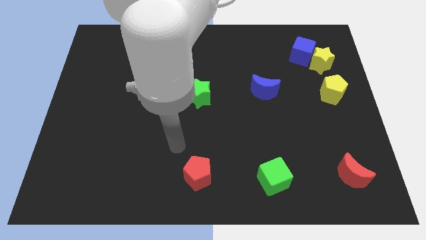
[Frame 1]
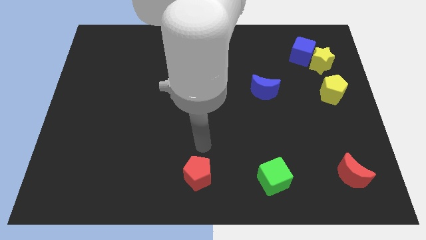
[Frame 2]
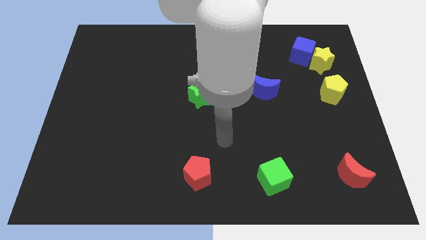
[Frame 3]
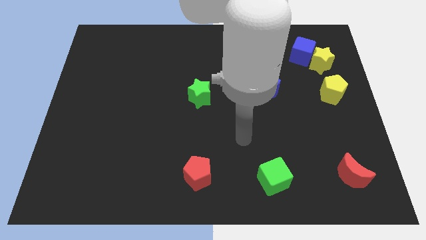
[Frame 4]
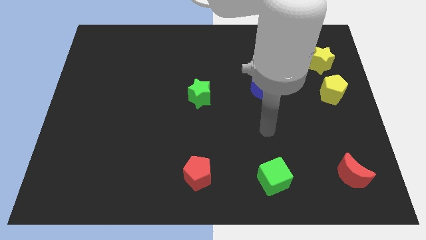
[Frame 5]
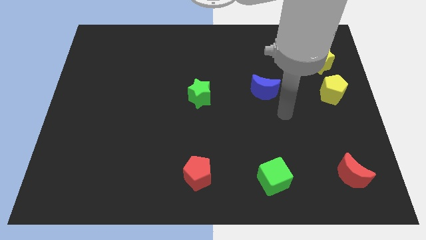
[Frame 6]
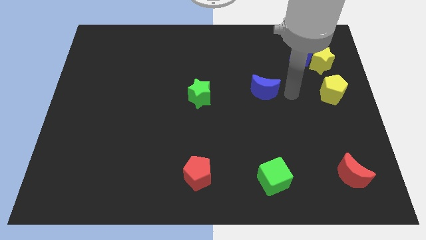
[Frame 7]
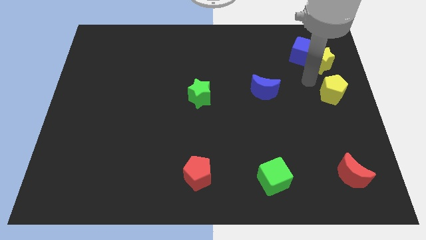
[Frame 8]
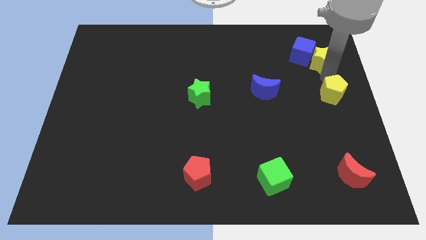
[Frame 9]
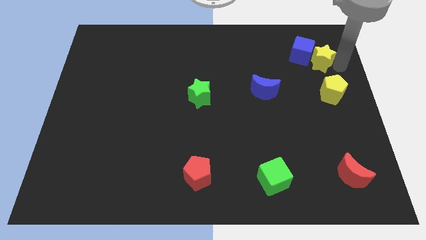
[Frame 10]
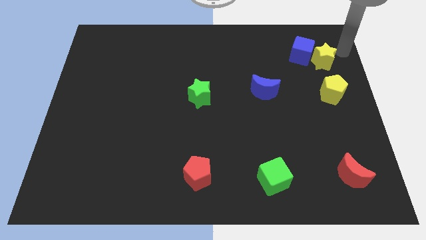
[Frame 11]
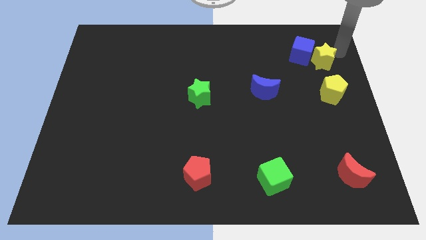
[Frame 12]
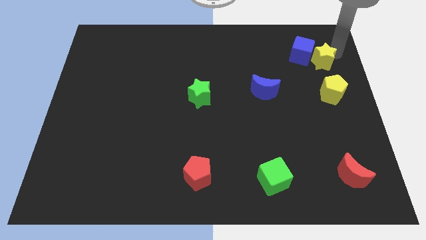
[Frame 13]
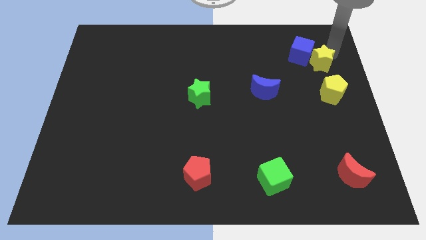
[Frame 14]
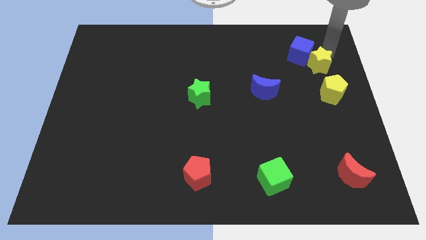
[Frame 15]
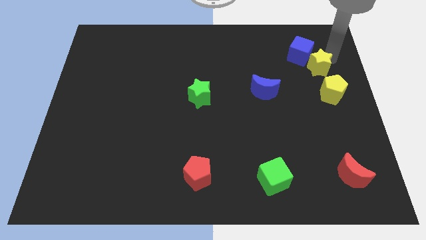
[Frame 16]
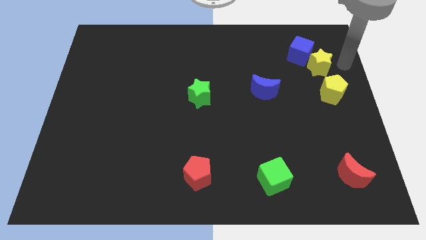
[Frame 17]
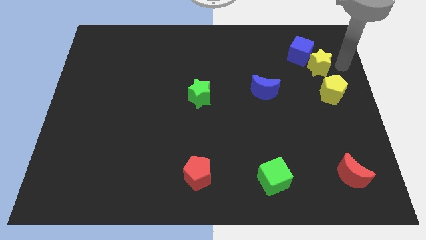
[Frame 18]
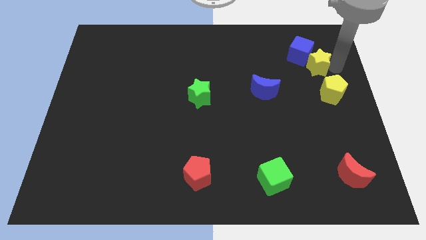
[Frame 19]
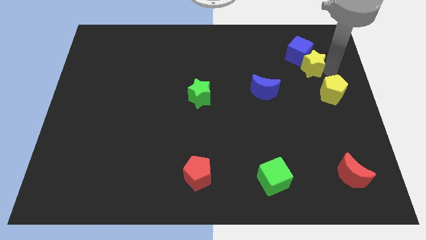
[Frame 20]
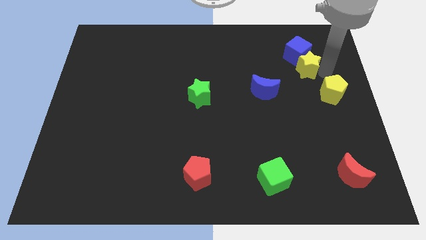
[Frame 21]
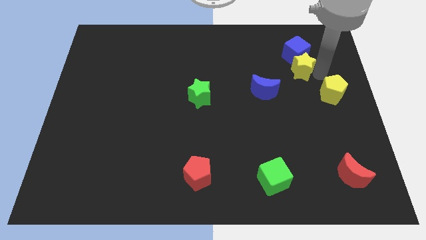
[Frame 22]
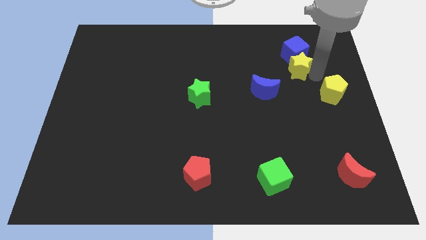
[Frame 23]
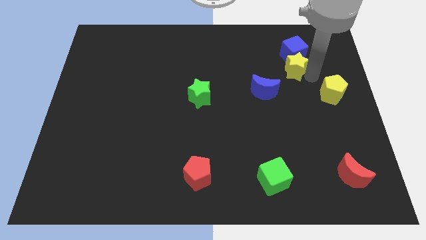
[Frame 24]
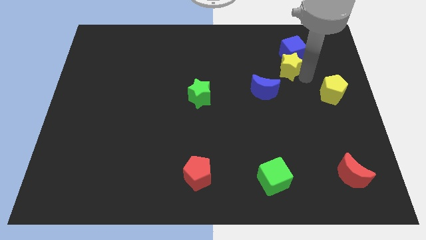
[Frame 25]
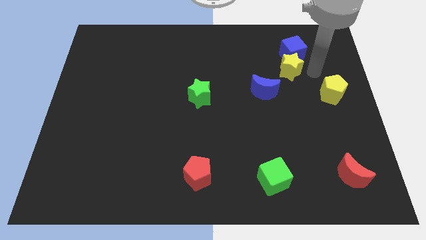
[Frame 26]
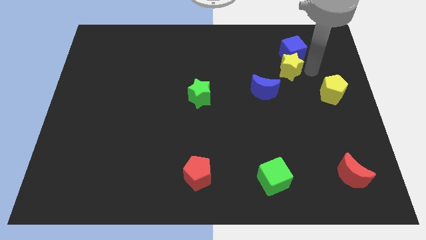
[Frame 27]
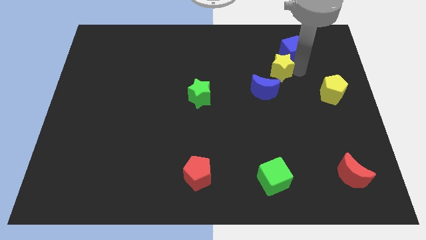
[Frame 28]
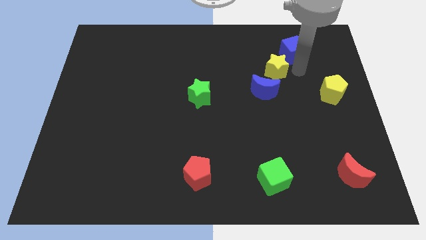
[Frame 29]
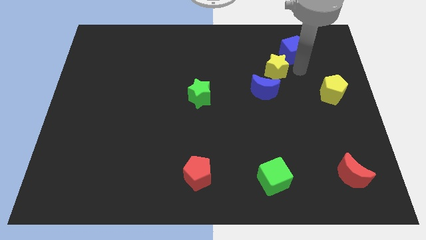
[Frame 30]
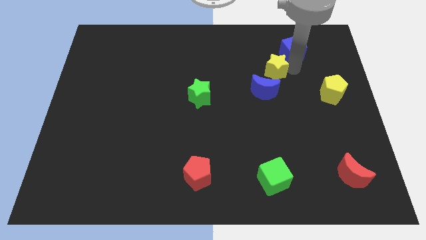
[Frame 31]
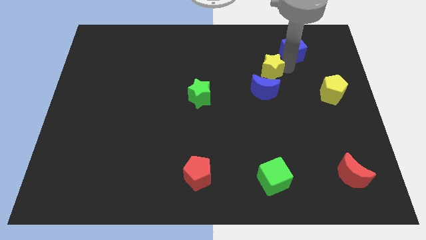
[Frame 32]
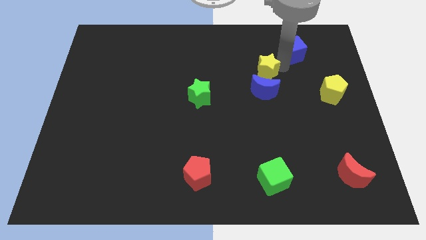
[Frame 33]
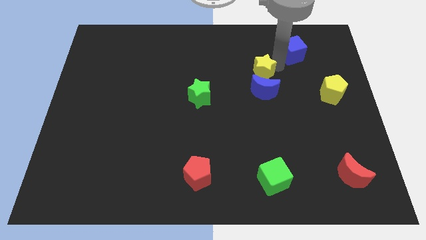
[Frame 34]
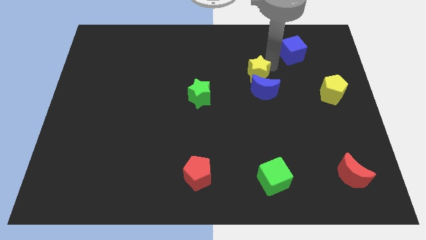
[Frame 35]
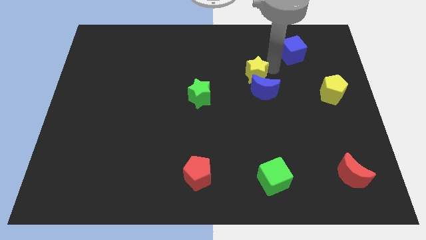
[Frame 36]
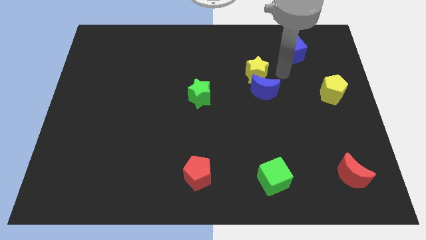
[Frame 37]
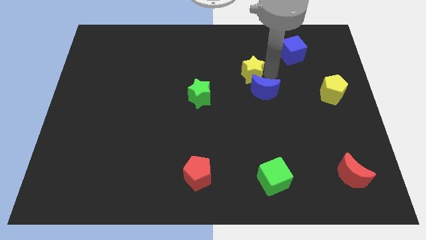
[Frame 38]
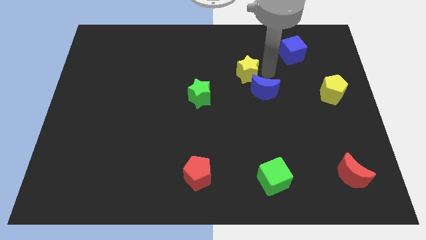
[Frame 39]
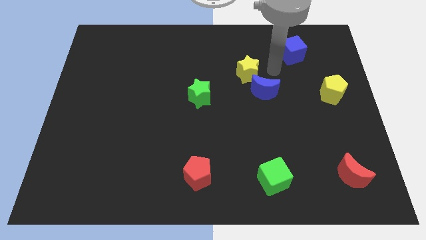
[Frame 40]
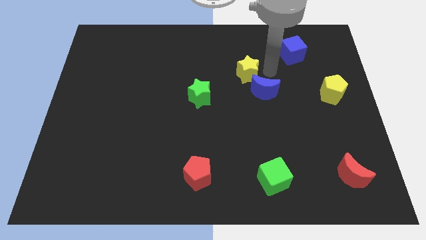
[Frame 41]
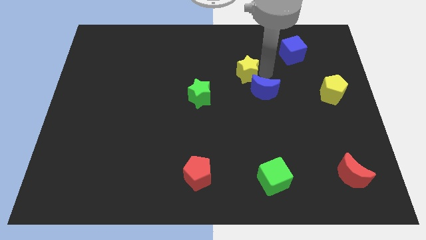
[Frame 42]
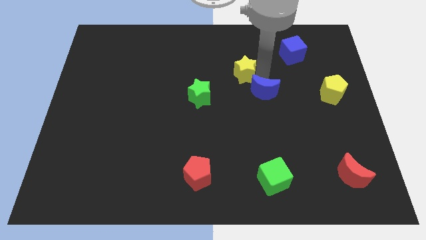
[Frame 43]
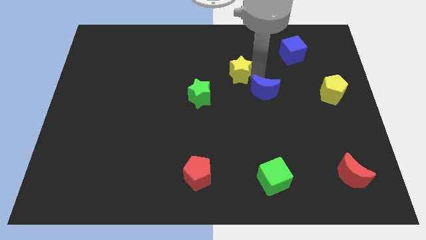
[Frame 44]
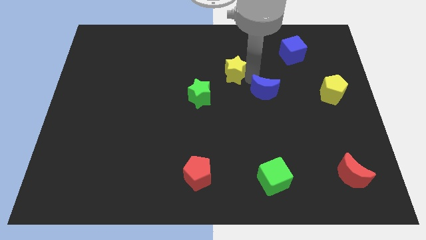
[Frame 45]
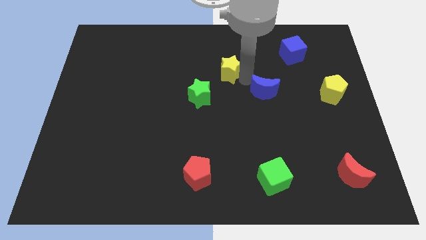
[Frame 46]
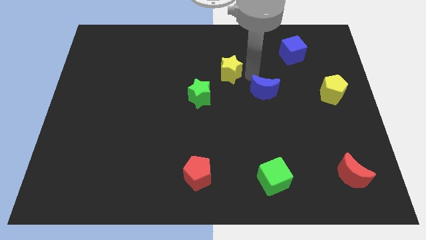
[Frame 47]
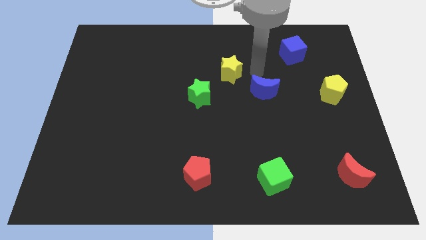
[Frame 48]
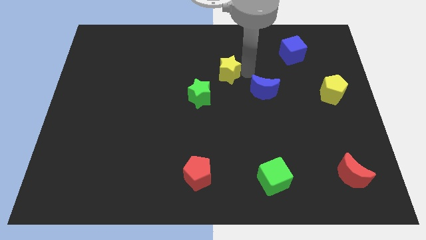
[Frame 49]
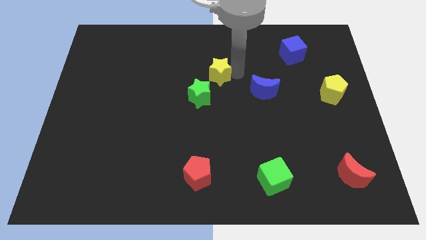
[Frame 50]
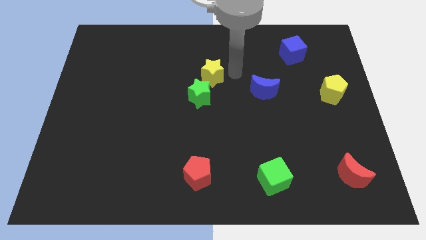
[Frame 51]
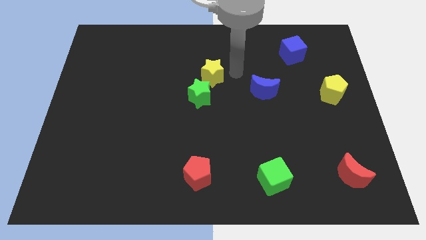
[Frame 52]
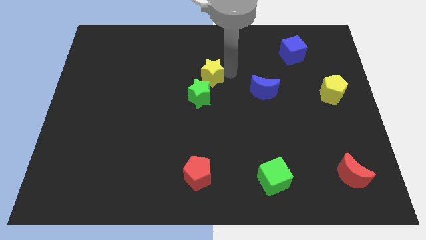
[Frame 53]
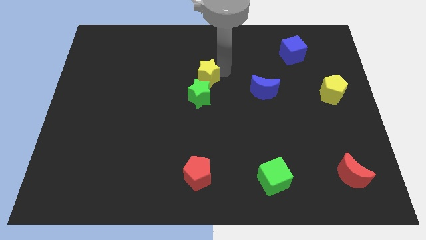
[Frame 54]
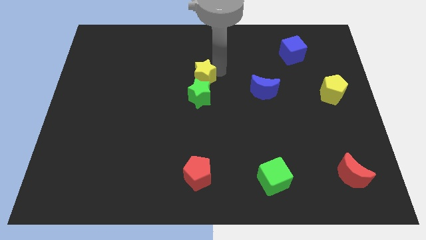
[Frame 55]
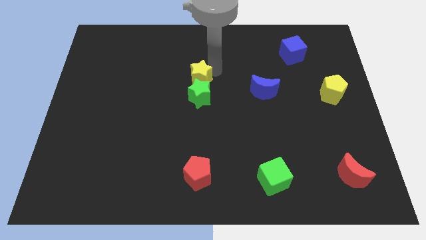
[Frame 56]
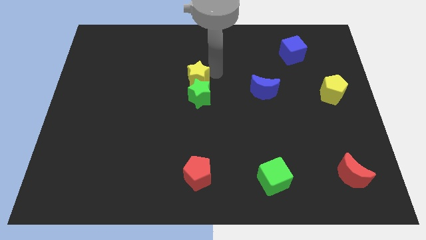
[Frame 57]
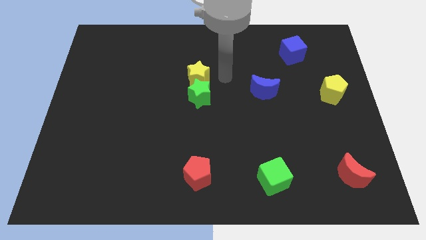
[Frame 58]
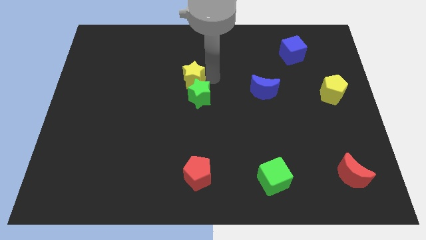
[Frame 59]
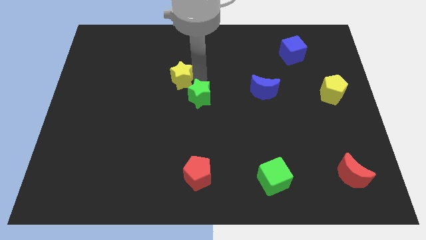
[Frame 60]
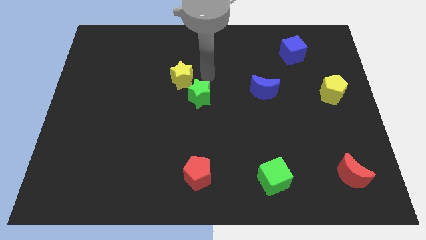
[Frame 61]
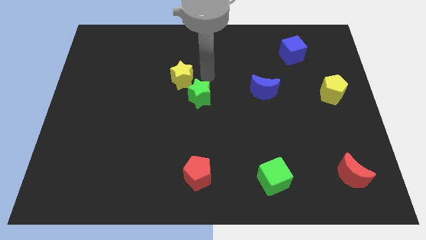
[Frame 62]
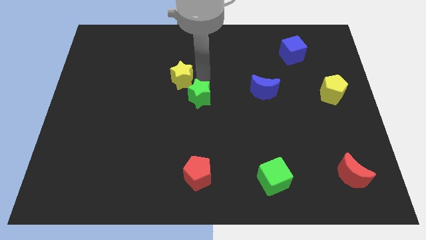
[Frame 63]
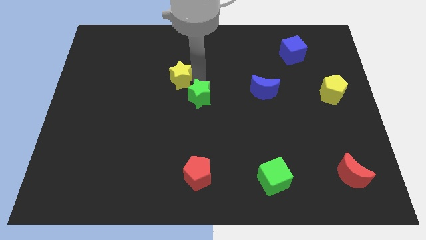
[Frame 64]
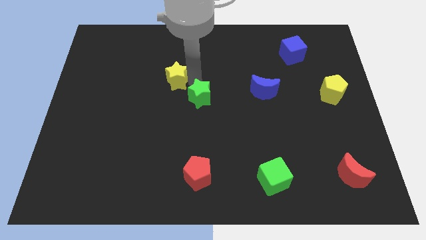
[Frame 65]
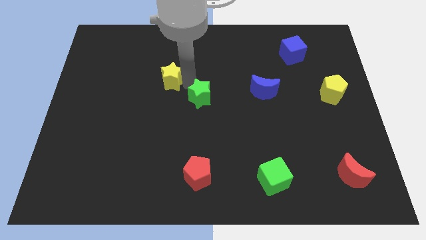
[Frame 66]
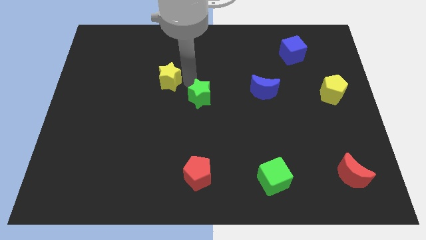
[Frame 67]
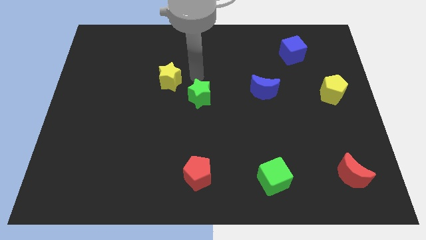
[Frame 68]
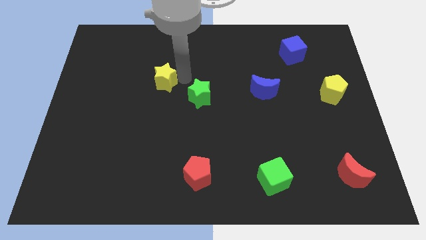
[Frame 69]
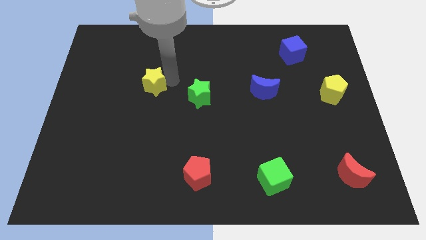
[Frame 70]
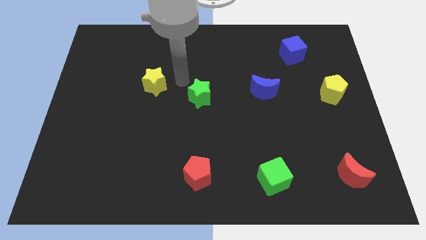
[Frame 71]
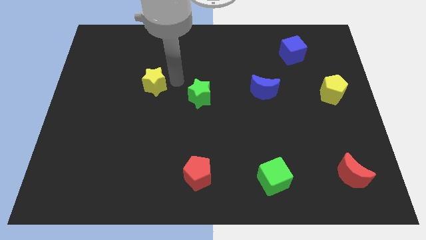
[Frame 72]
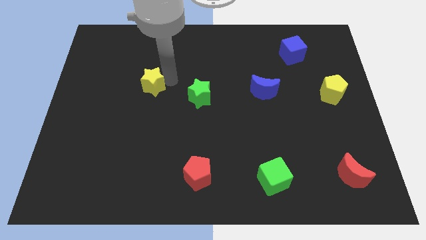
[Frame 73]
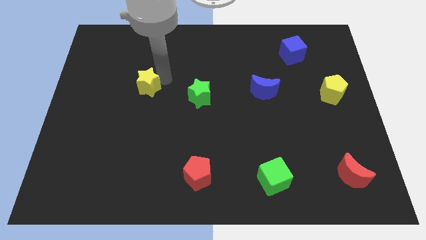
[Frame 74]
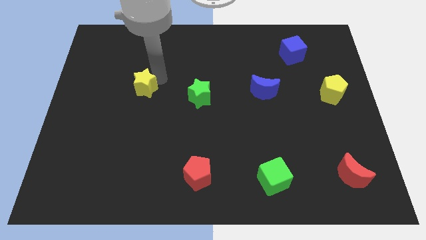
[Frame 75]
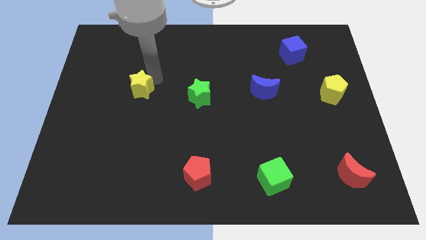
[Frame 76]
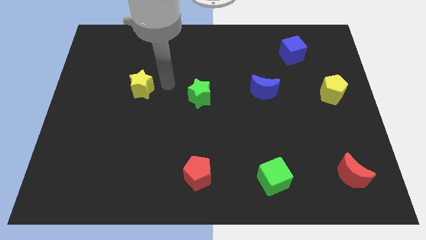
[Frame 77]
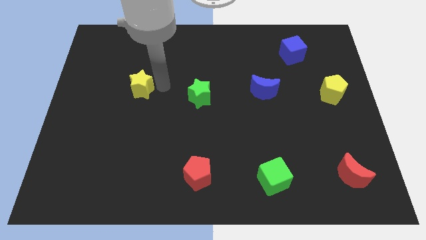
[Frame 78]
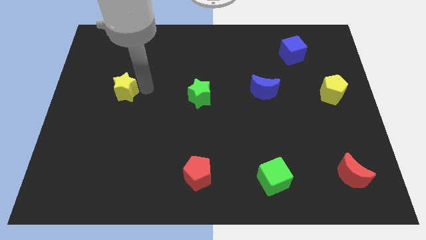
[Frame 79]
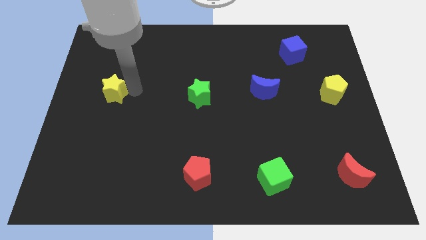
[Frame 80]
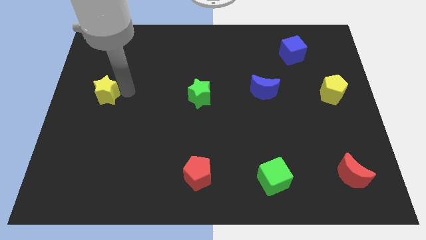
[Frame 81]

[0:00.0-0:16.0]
put the yellow star to the left side of the board
